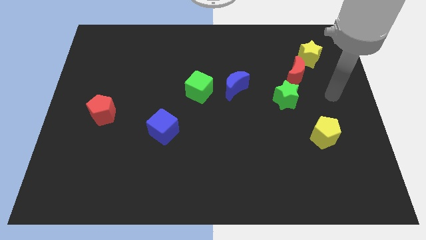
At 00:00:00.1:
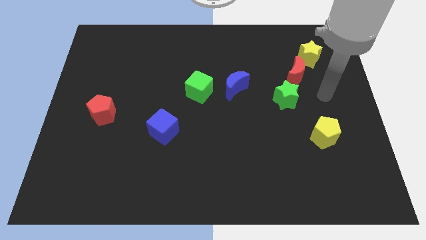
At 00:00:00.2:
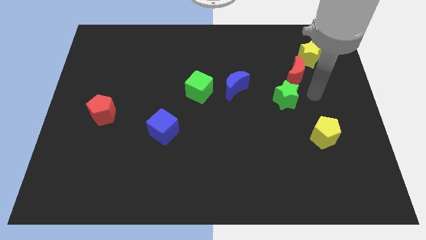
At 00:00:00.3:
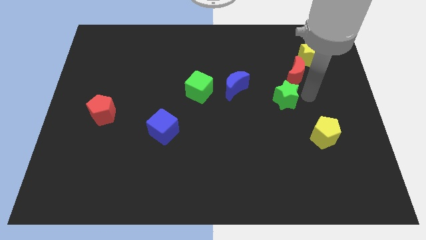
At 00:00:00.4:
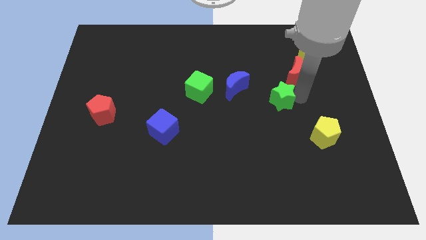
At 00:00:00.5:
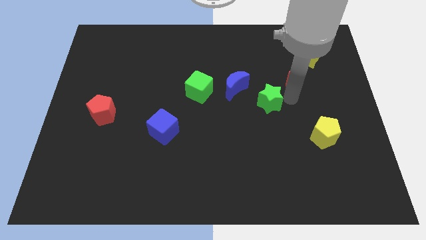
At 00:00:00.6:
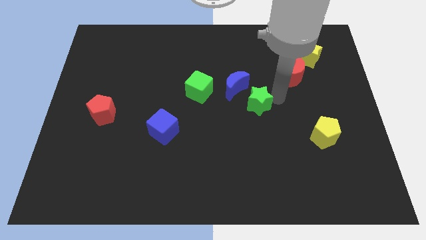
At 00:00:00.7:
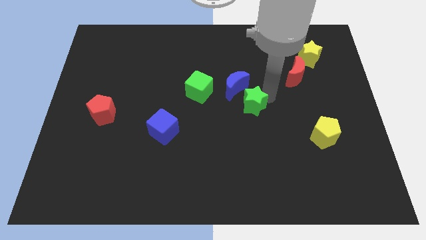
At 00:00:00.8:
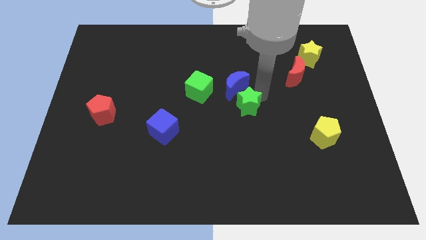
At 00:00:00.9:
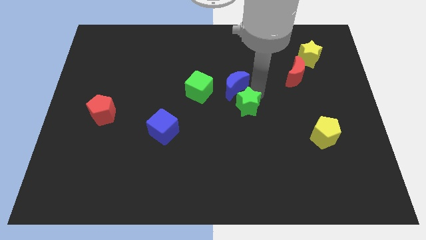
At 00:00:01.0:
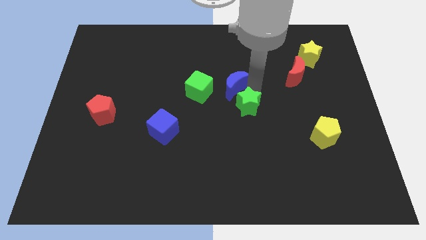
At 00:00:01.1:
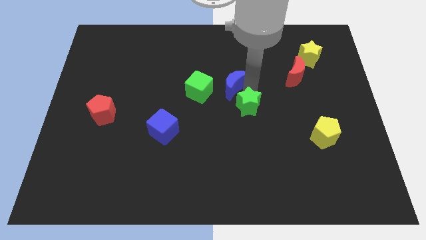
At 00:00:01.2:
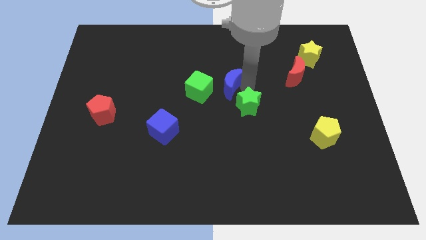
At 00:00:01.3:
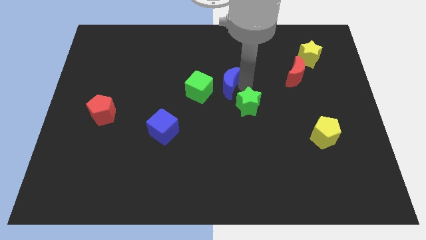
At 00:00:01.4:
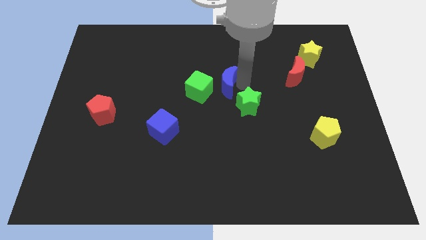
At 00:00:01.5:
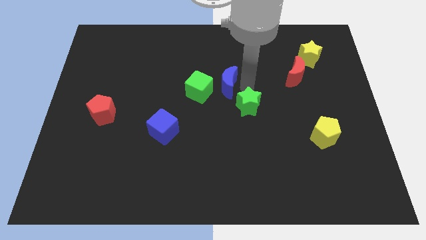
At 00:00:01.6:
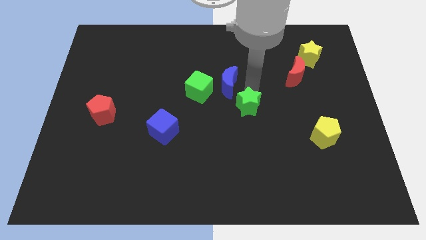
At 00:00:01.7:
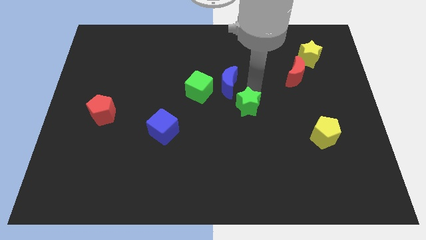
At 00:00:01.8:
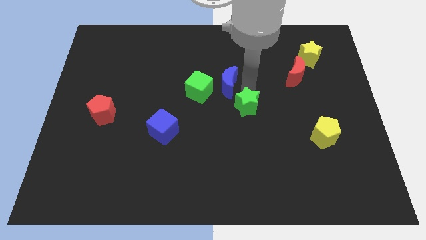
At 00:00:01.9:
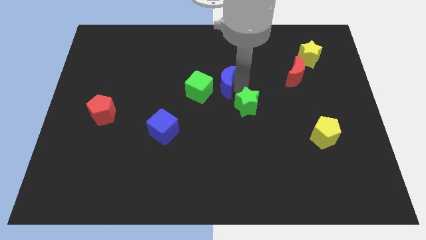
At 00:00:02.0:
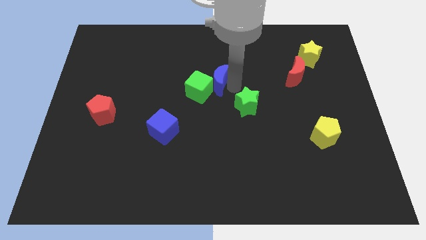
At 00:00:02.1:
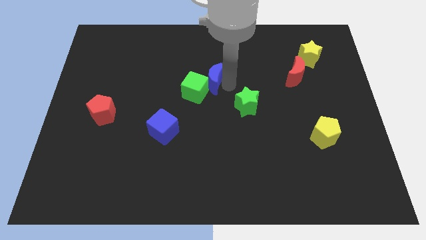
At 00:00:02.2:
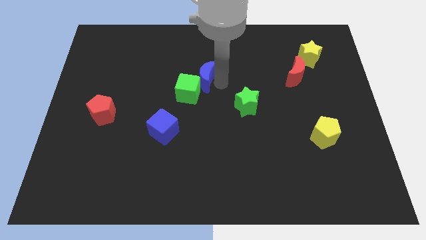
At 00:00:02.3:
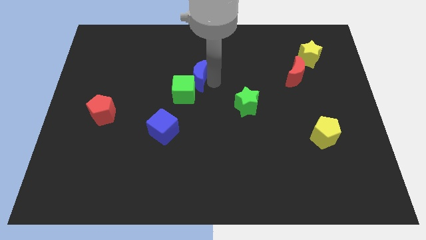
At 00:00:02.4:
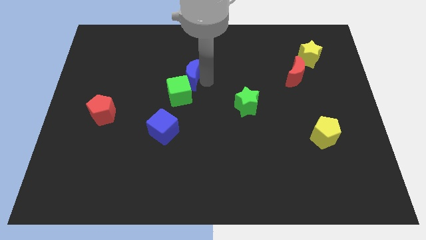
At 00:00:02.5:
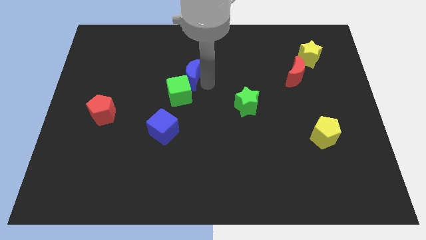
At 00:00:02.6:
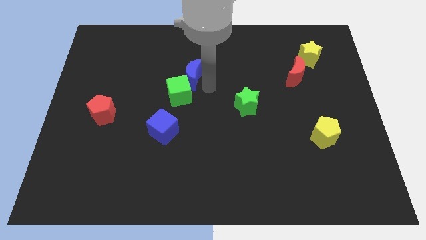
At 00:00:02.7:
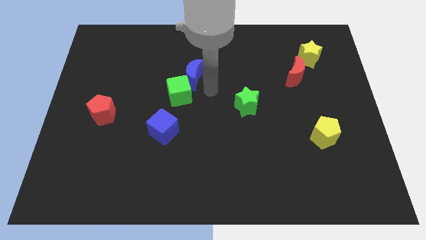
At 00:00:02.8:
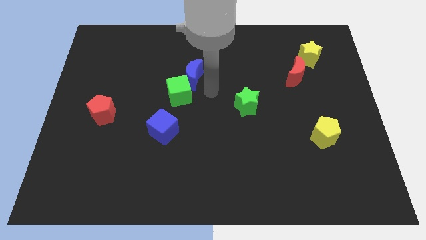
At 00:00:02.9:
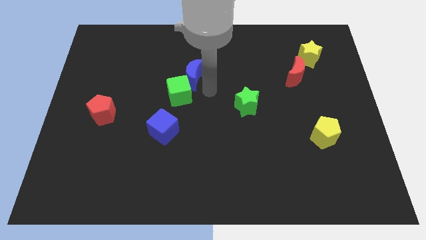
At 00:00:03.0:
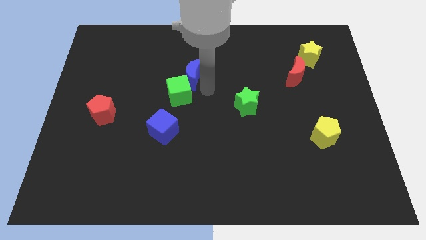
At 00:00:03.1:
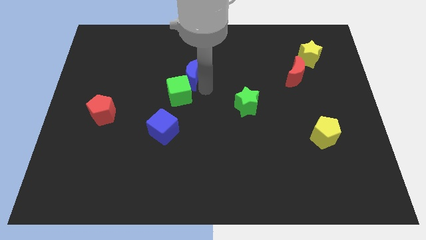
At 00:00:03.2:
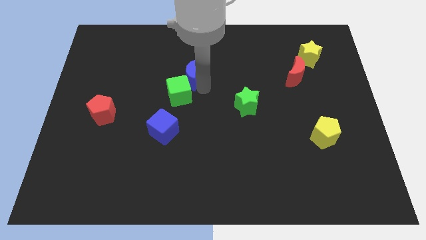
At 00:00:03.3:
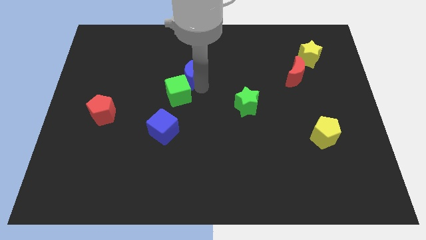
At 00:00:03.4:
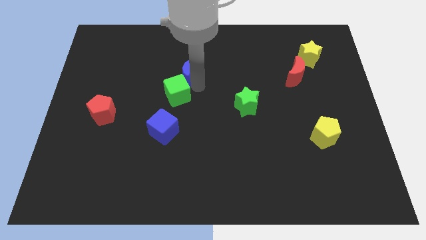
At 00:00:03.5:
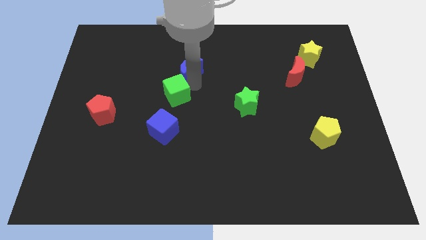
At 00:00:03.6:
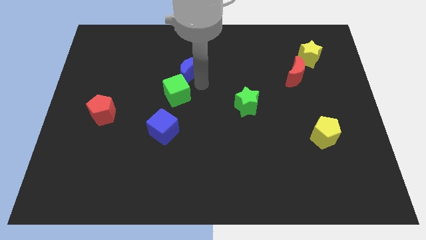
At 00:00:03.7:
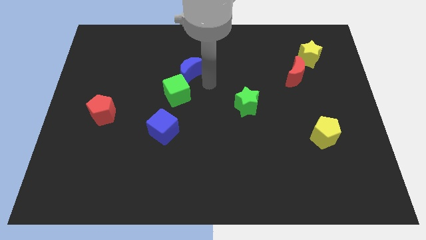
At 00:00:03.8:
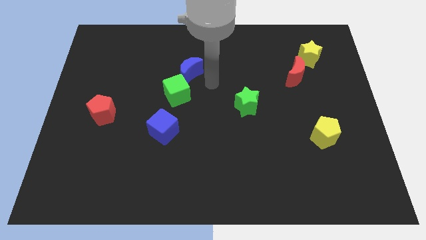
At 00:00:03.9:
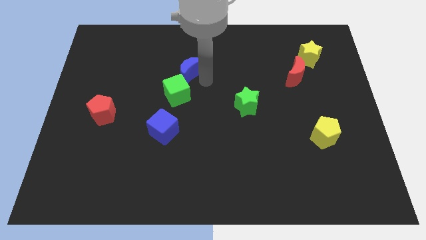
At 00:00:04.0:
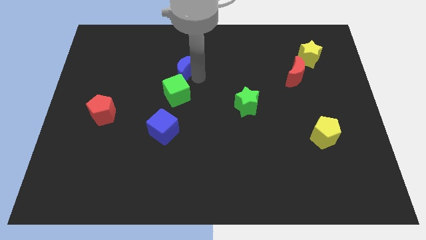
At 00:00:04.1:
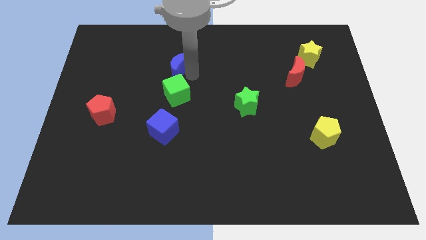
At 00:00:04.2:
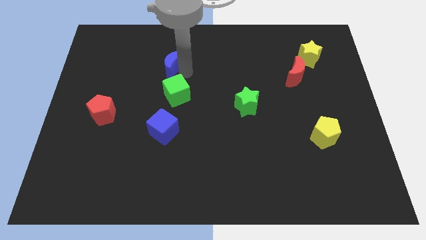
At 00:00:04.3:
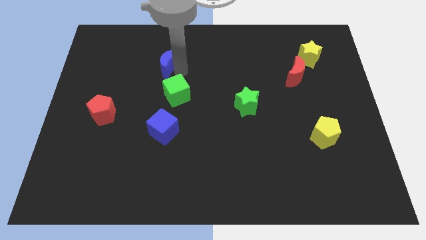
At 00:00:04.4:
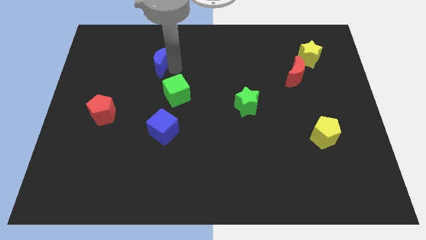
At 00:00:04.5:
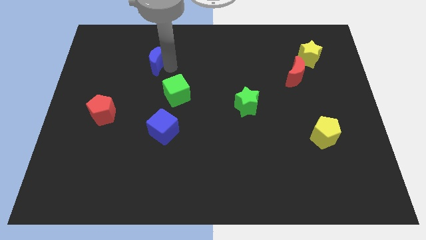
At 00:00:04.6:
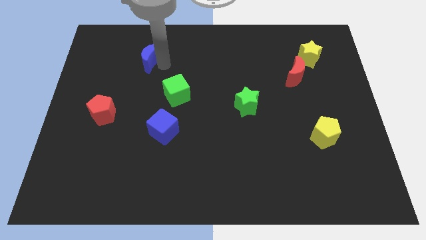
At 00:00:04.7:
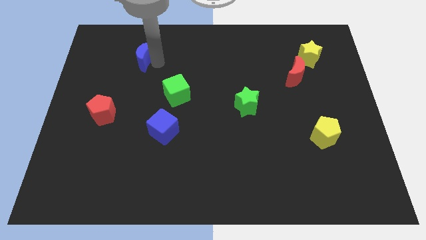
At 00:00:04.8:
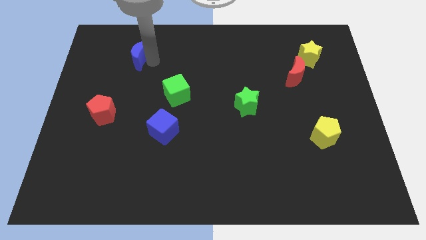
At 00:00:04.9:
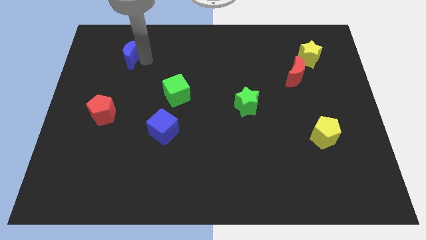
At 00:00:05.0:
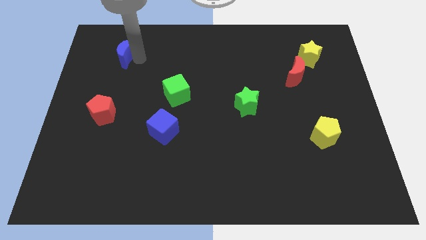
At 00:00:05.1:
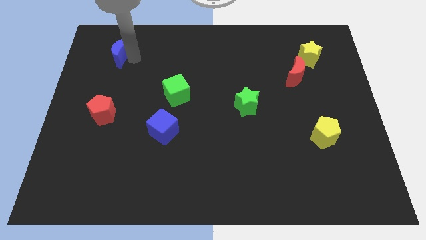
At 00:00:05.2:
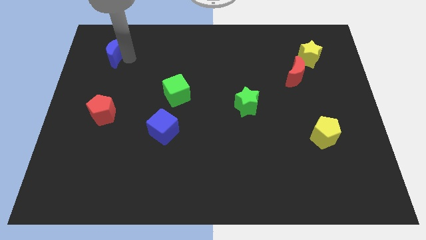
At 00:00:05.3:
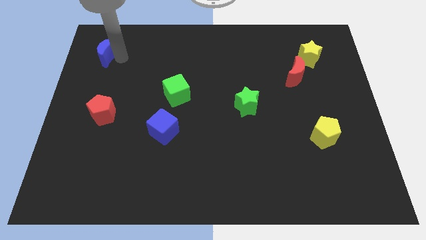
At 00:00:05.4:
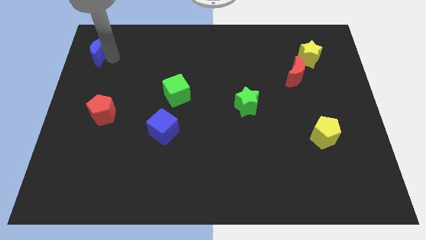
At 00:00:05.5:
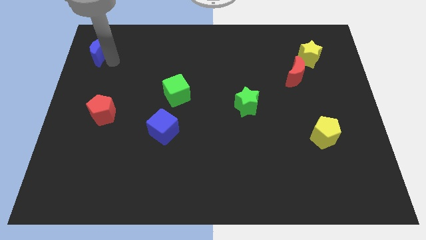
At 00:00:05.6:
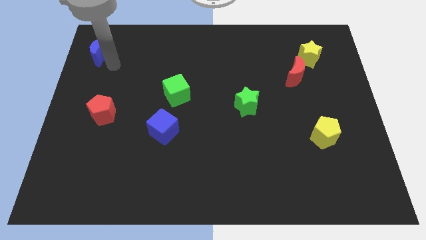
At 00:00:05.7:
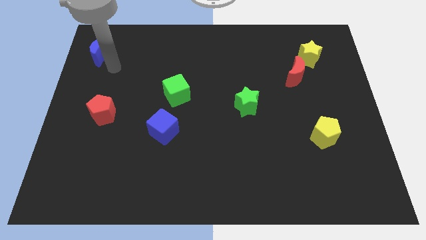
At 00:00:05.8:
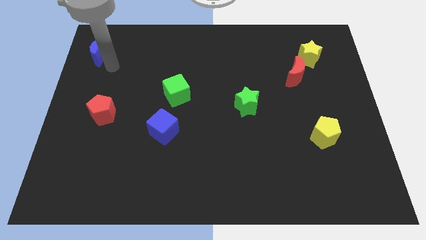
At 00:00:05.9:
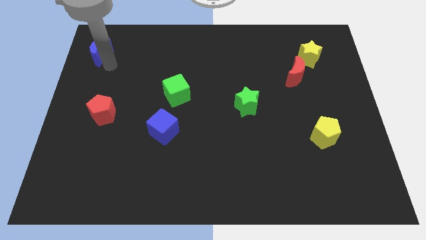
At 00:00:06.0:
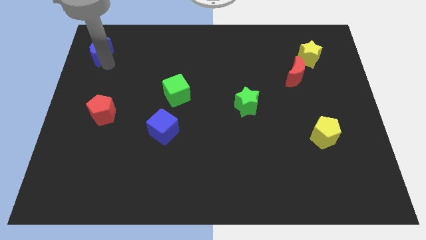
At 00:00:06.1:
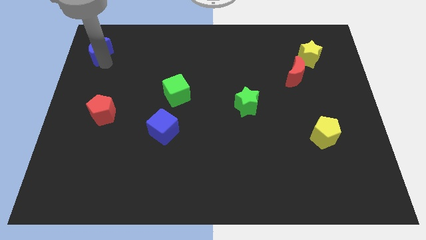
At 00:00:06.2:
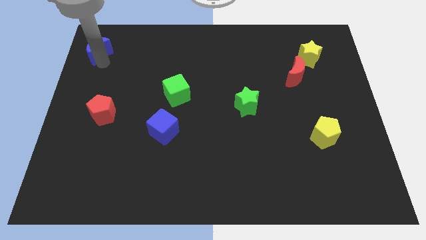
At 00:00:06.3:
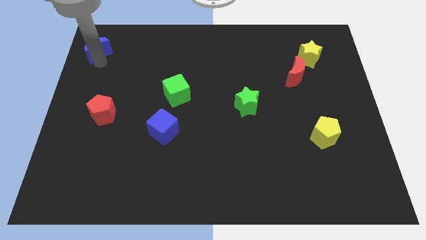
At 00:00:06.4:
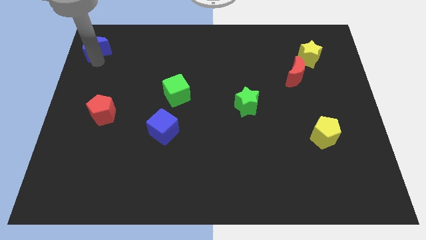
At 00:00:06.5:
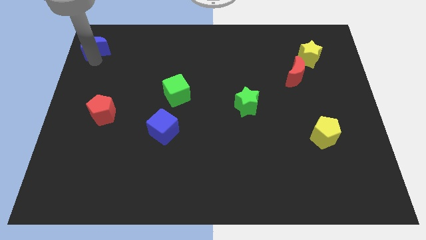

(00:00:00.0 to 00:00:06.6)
put the blue moon to the top left
